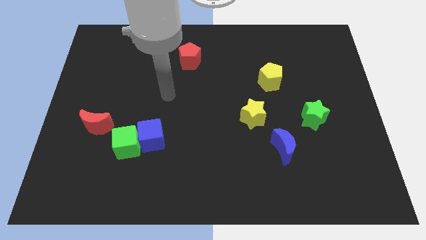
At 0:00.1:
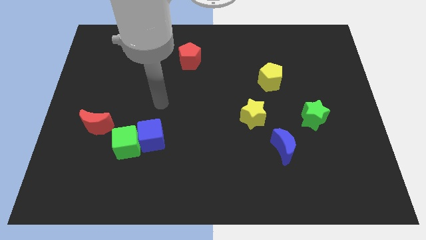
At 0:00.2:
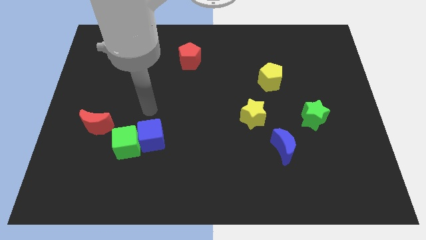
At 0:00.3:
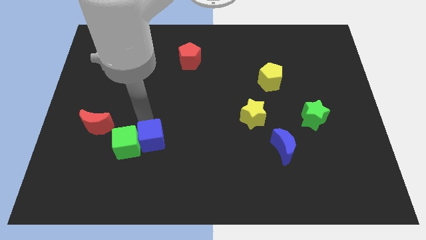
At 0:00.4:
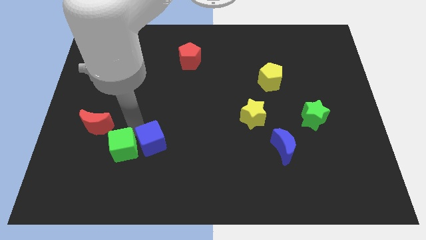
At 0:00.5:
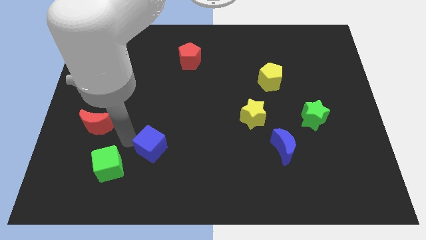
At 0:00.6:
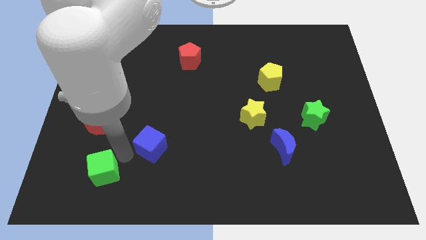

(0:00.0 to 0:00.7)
pull the blue cube apart from the green cube

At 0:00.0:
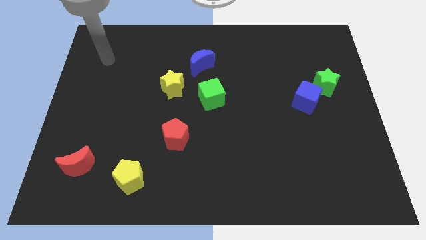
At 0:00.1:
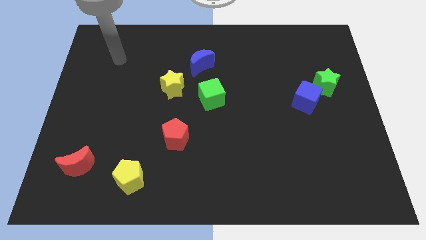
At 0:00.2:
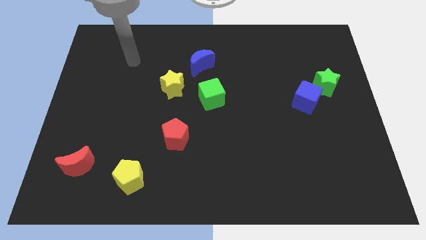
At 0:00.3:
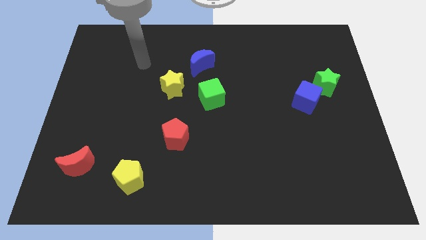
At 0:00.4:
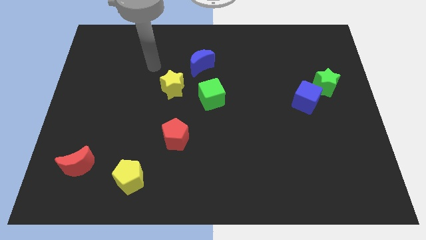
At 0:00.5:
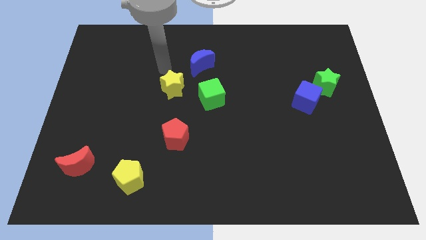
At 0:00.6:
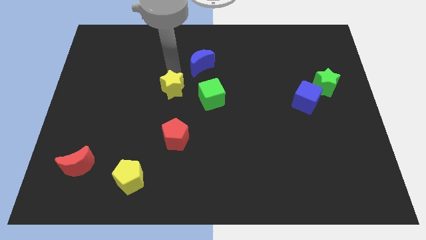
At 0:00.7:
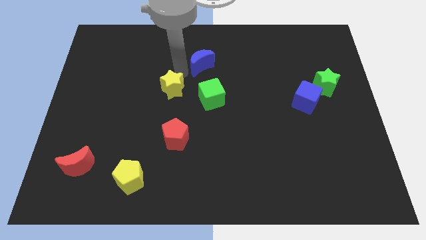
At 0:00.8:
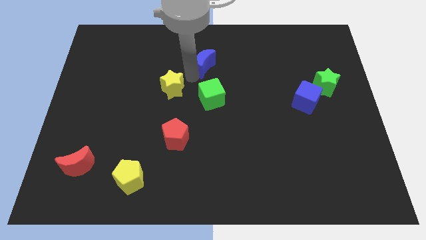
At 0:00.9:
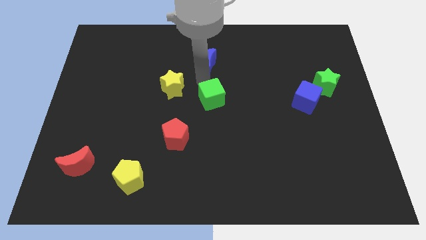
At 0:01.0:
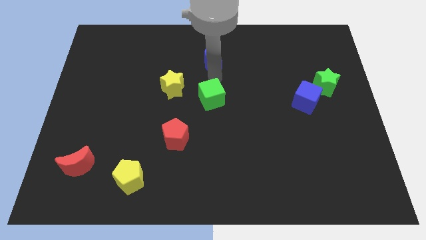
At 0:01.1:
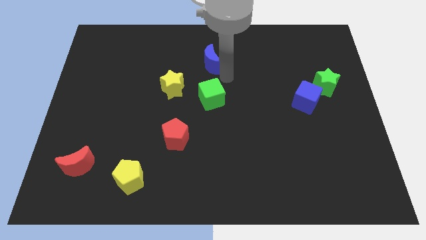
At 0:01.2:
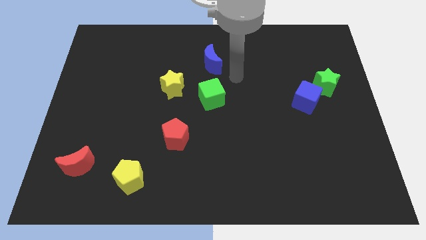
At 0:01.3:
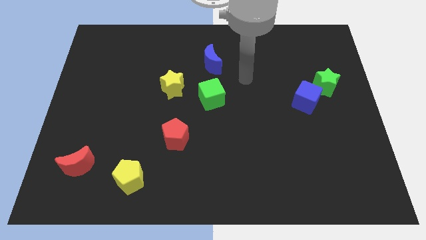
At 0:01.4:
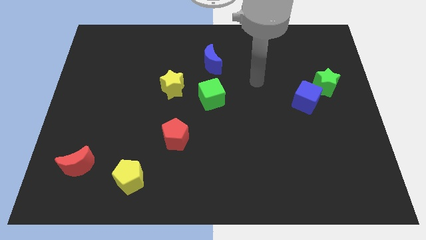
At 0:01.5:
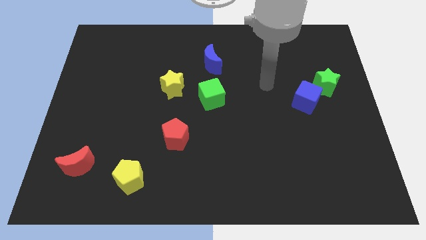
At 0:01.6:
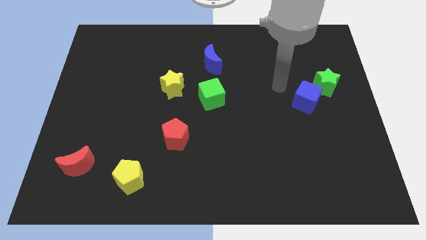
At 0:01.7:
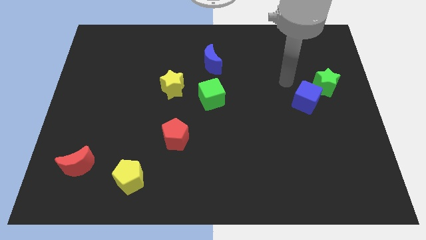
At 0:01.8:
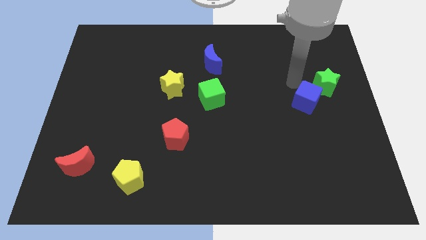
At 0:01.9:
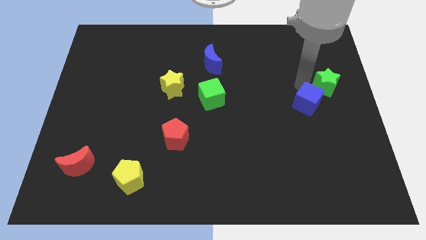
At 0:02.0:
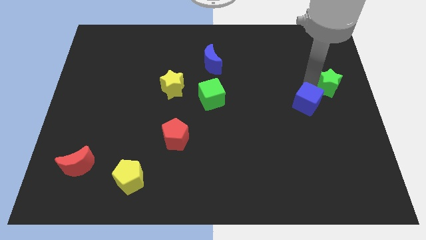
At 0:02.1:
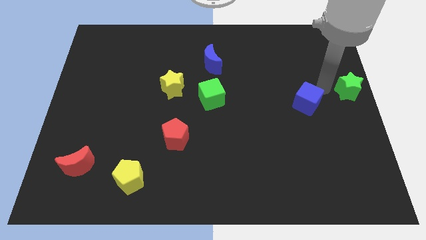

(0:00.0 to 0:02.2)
separate the blue cube from the green star

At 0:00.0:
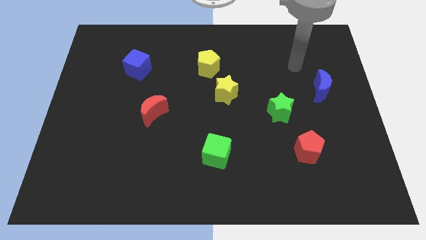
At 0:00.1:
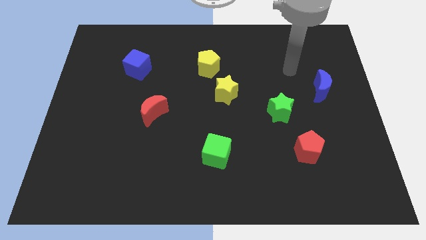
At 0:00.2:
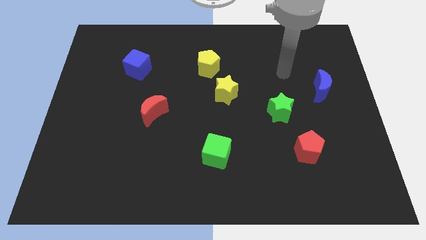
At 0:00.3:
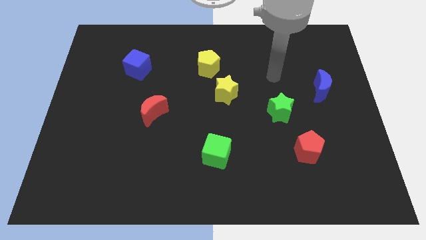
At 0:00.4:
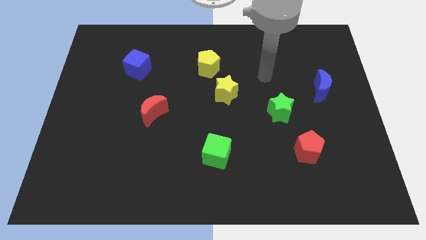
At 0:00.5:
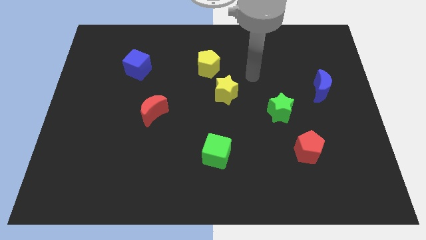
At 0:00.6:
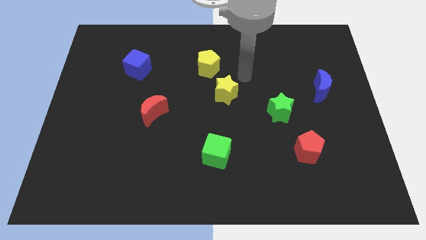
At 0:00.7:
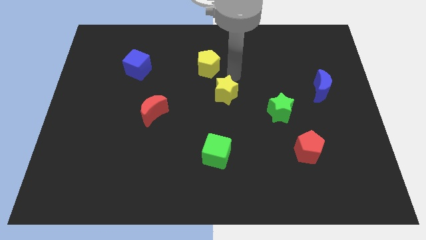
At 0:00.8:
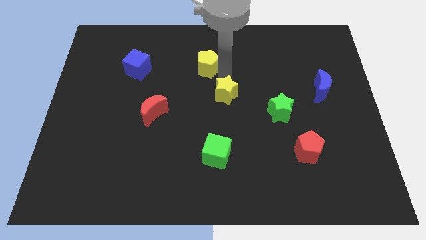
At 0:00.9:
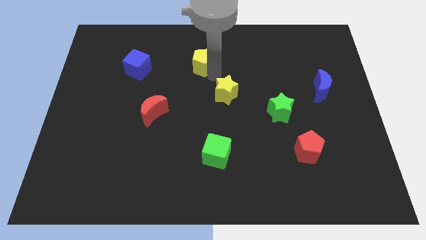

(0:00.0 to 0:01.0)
separate the yellow star from the yellow pentagon

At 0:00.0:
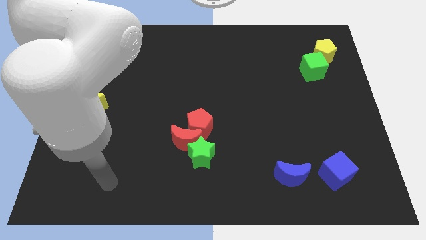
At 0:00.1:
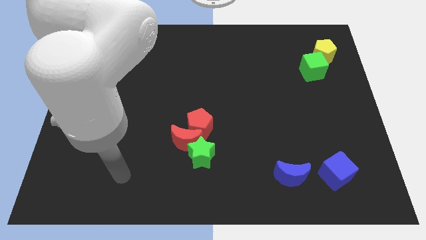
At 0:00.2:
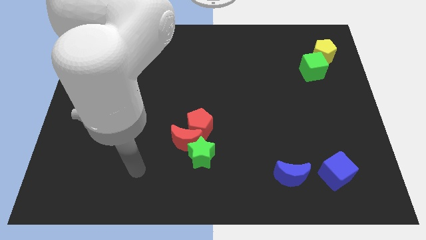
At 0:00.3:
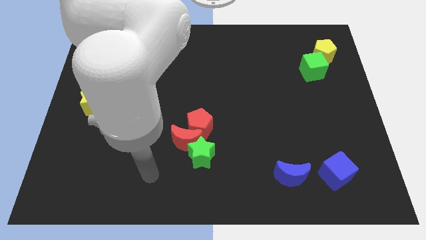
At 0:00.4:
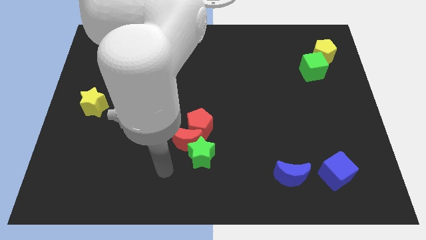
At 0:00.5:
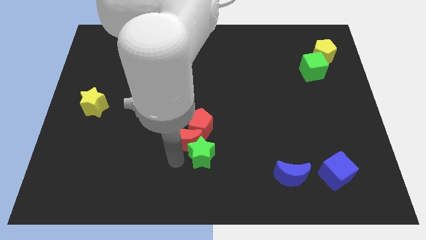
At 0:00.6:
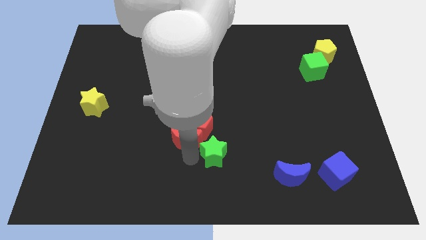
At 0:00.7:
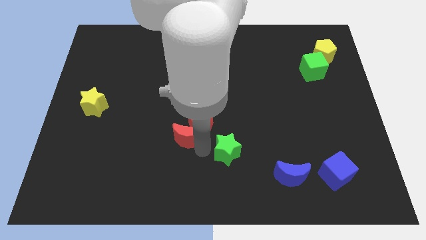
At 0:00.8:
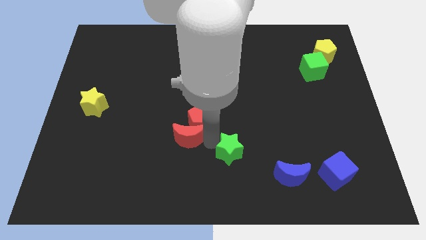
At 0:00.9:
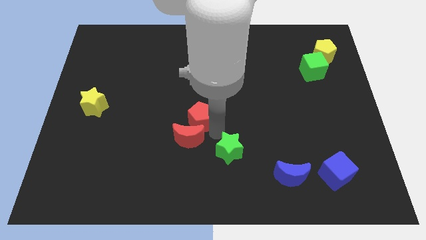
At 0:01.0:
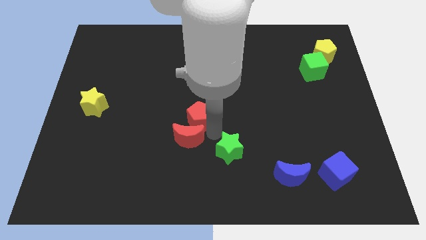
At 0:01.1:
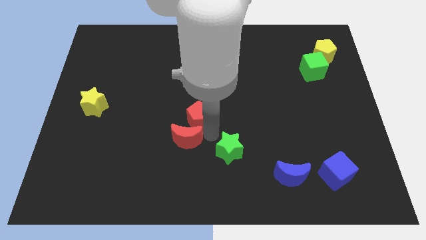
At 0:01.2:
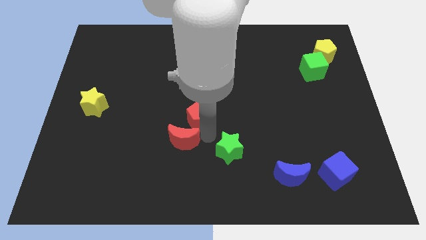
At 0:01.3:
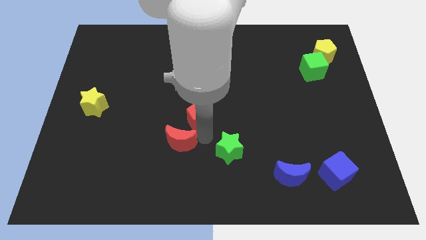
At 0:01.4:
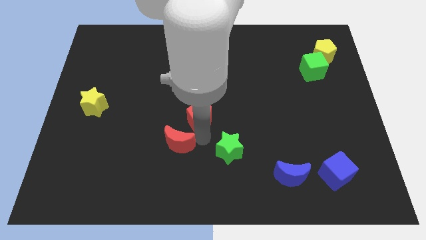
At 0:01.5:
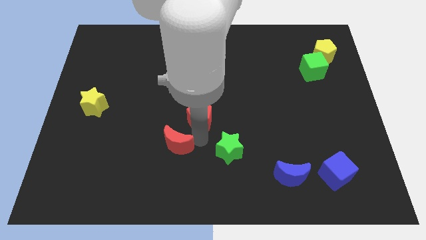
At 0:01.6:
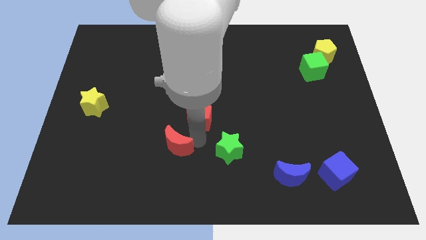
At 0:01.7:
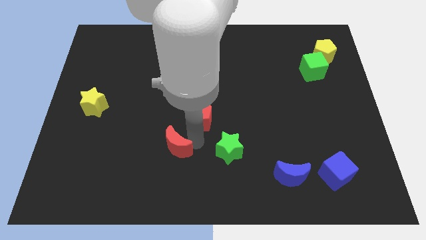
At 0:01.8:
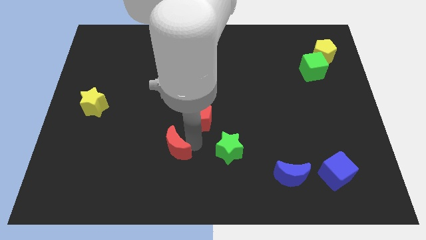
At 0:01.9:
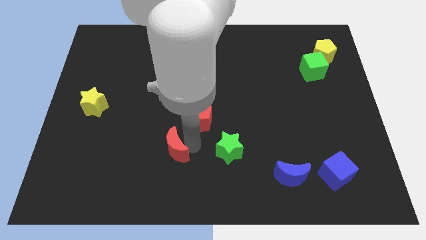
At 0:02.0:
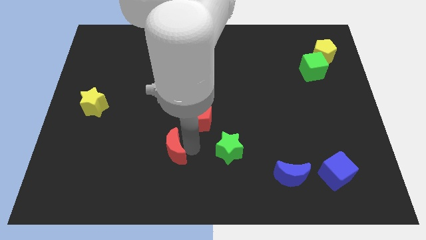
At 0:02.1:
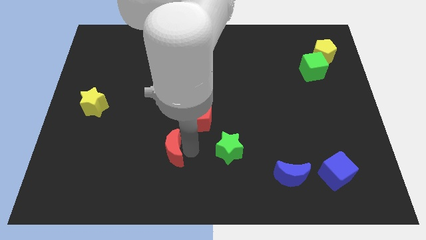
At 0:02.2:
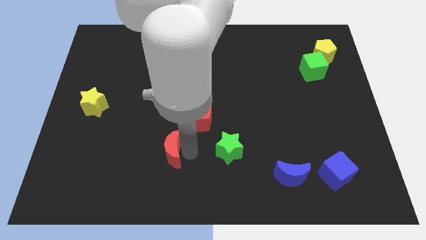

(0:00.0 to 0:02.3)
move the red moon away from the green star and red pentagon

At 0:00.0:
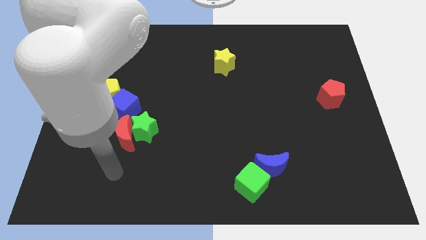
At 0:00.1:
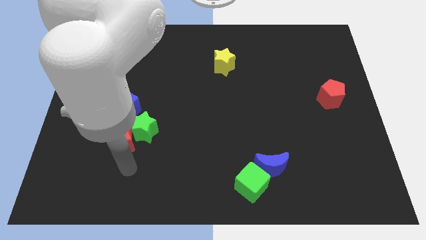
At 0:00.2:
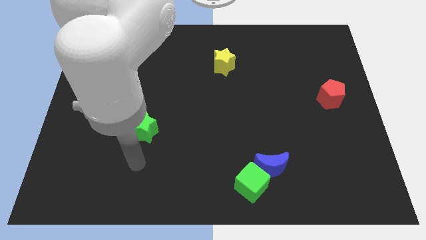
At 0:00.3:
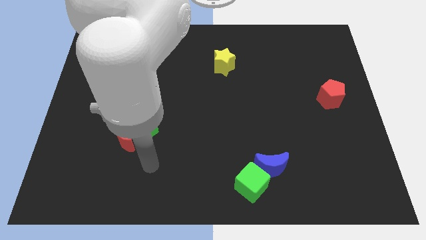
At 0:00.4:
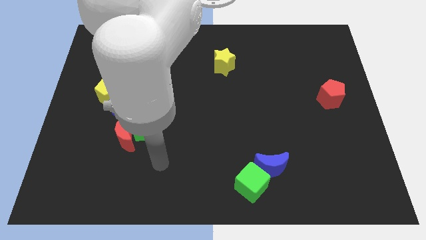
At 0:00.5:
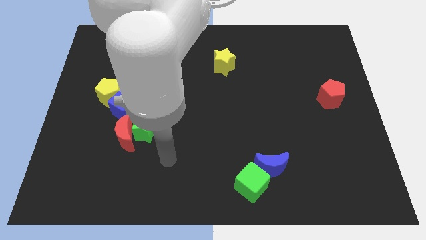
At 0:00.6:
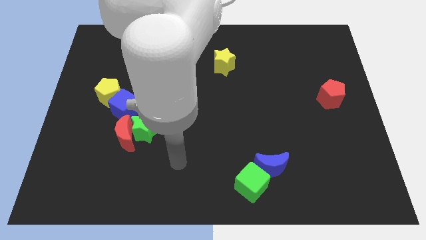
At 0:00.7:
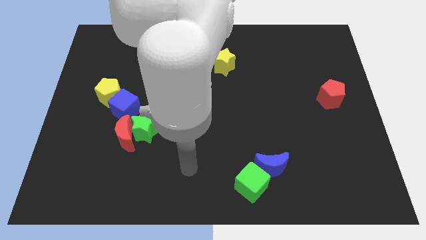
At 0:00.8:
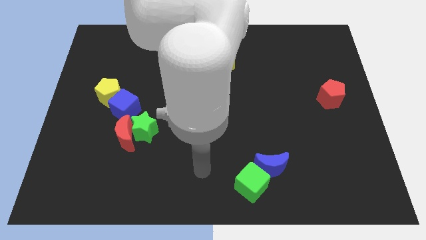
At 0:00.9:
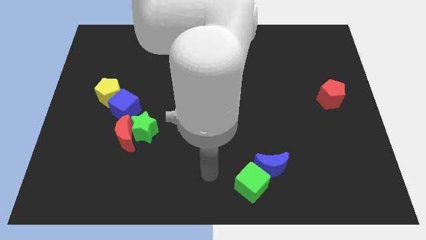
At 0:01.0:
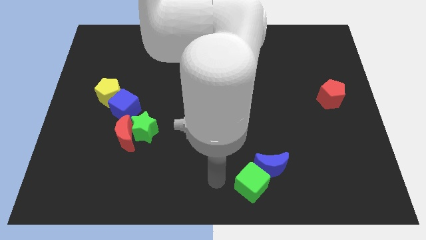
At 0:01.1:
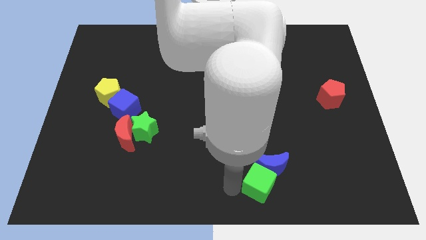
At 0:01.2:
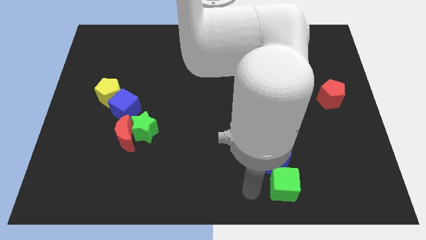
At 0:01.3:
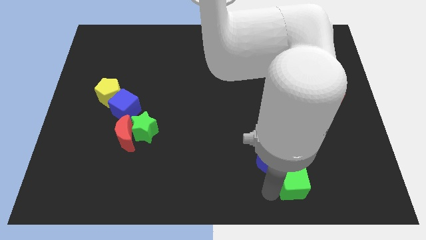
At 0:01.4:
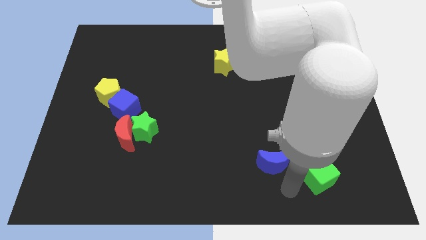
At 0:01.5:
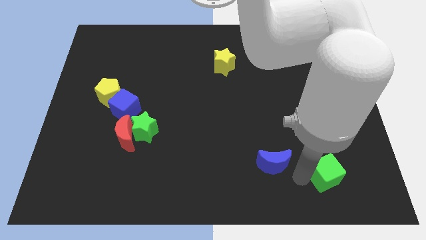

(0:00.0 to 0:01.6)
separate the blue moon from the green cube

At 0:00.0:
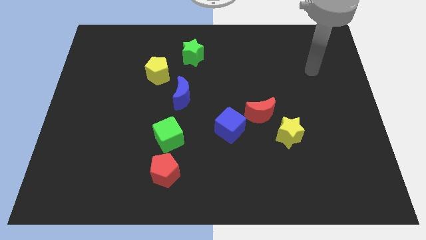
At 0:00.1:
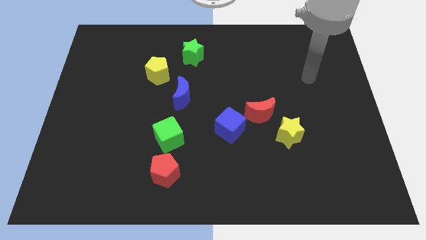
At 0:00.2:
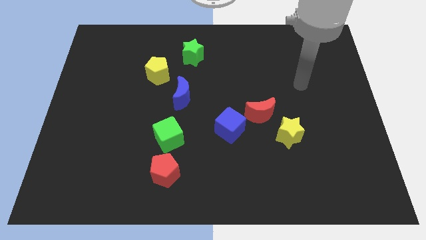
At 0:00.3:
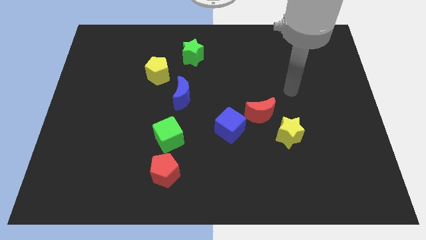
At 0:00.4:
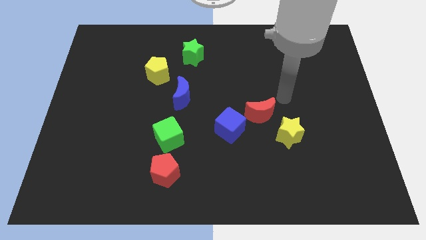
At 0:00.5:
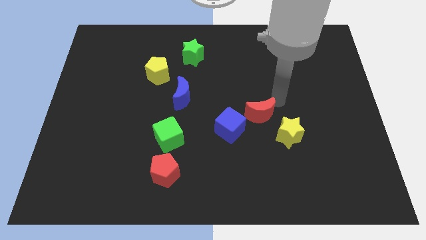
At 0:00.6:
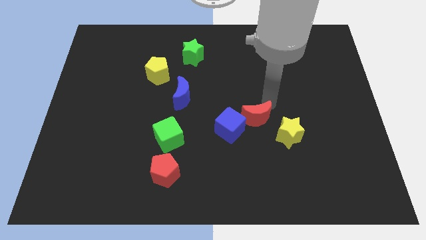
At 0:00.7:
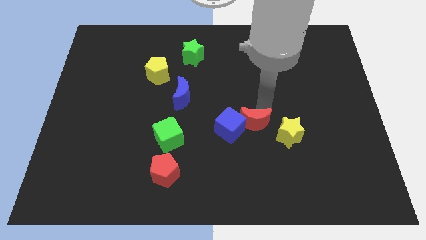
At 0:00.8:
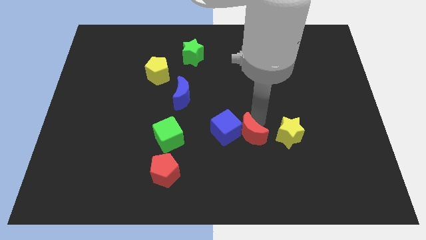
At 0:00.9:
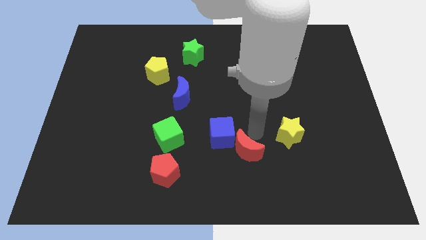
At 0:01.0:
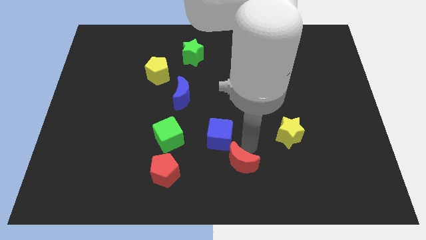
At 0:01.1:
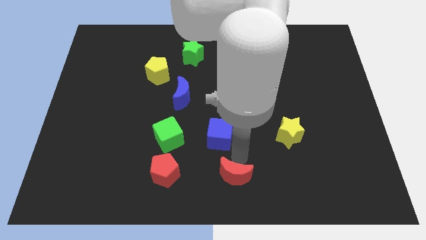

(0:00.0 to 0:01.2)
separate the blue cube from the red moon

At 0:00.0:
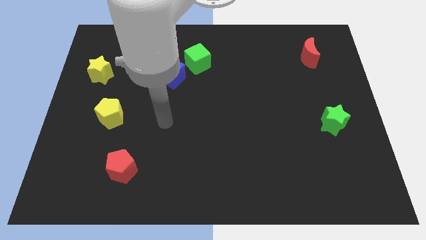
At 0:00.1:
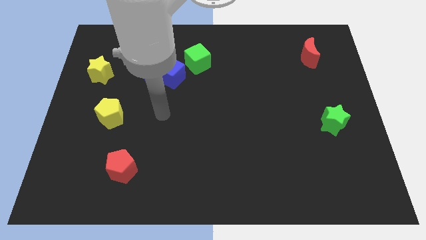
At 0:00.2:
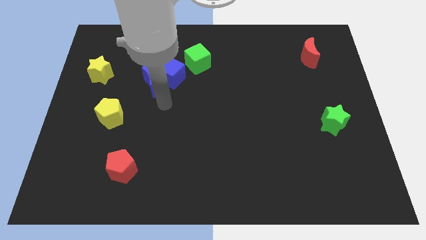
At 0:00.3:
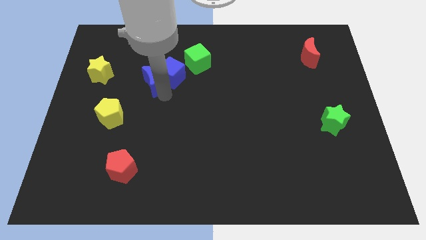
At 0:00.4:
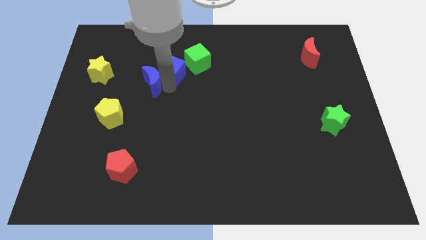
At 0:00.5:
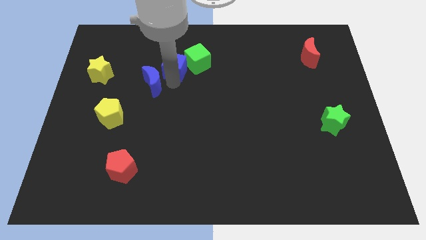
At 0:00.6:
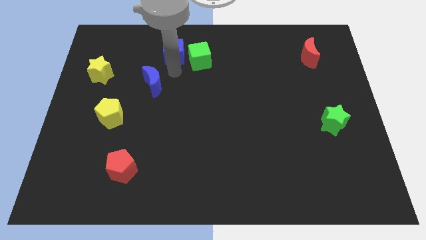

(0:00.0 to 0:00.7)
pull the blue moon apart from the blue cube
